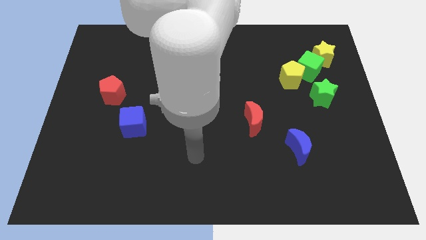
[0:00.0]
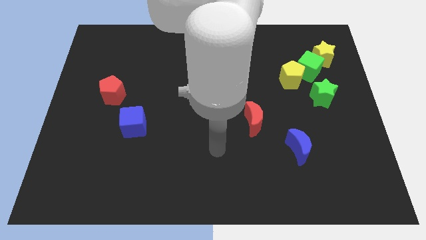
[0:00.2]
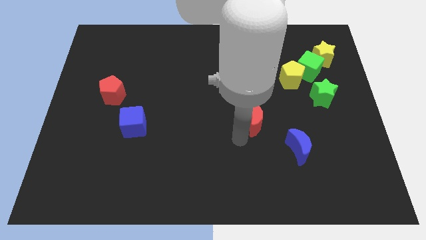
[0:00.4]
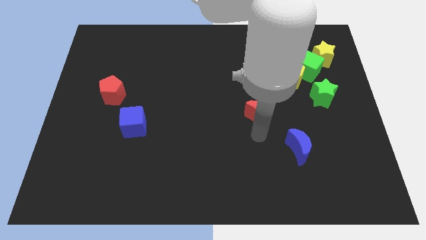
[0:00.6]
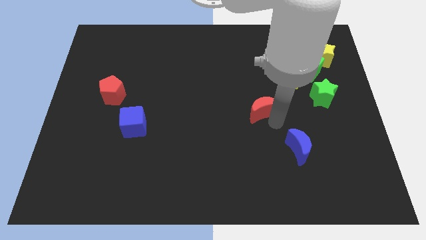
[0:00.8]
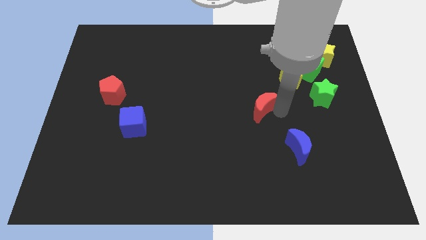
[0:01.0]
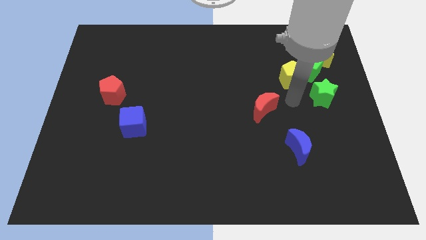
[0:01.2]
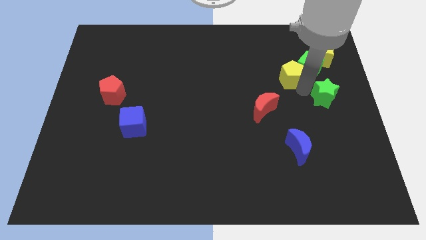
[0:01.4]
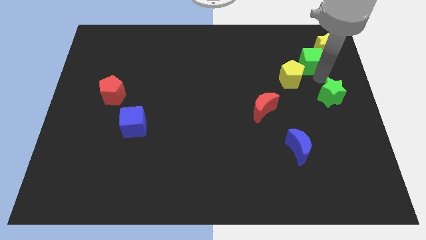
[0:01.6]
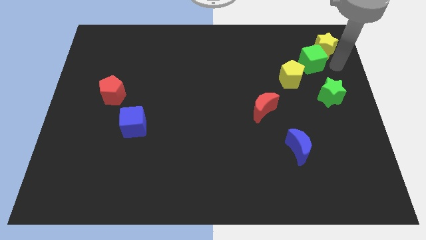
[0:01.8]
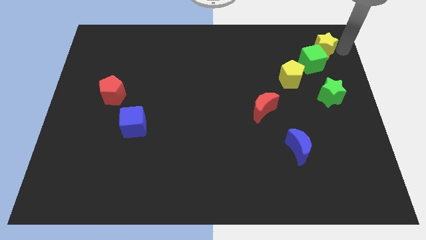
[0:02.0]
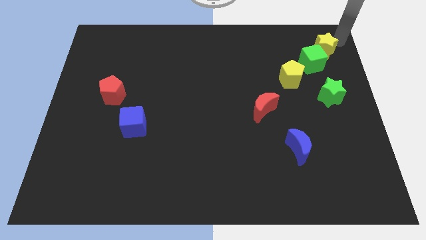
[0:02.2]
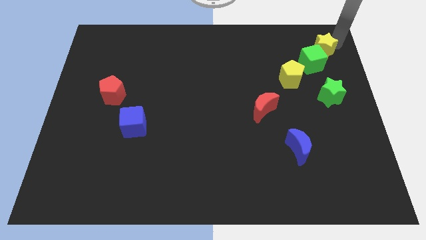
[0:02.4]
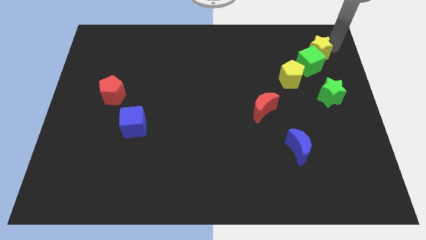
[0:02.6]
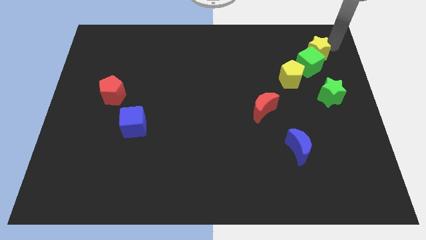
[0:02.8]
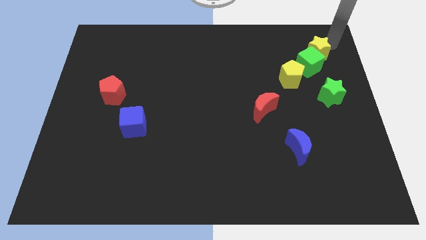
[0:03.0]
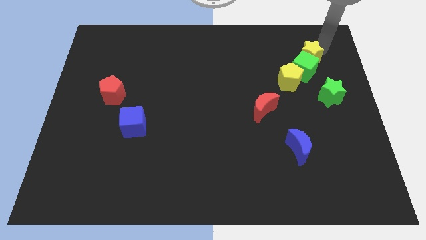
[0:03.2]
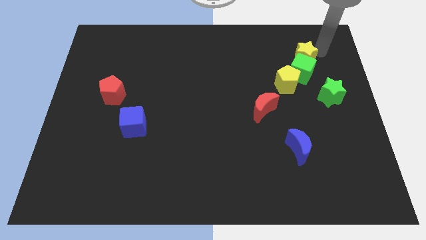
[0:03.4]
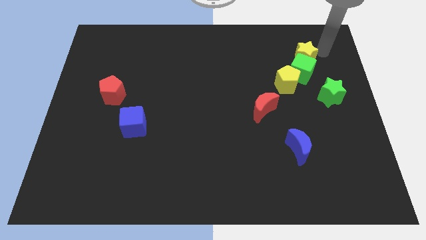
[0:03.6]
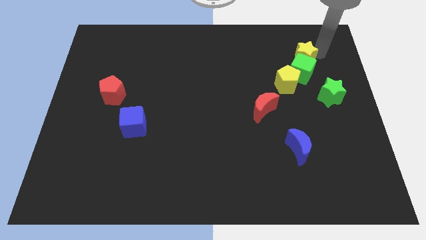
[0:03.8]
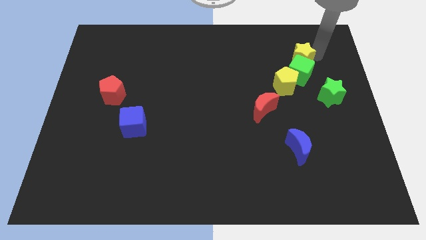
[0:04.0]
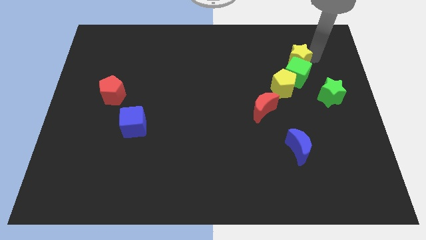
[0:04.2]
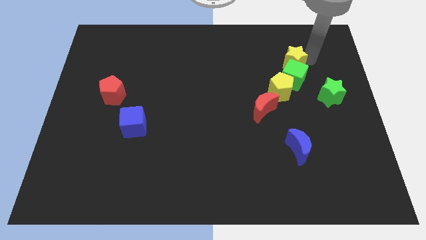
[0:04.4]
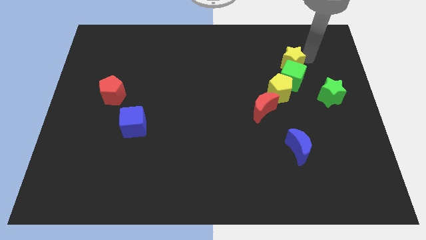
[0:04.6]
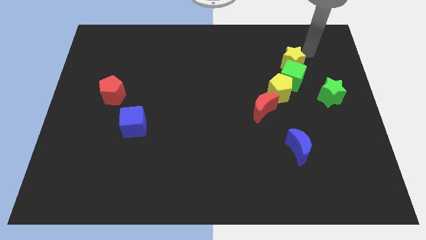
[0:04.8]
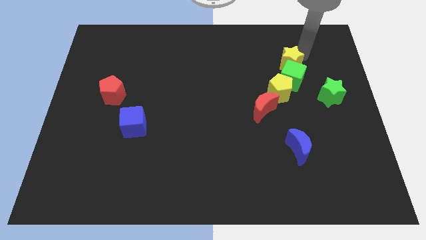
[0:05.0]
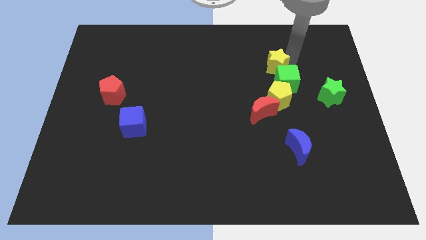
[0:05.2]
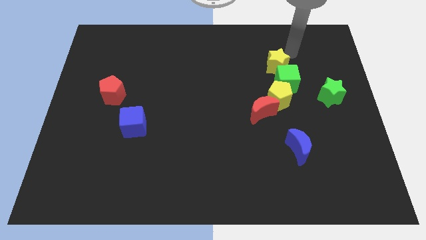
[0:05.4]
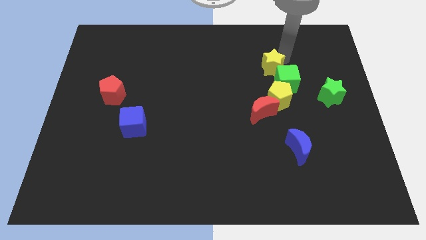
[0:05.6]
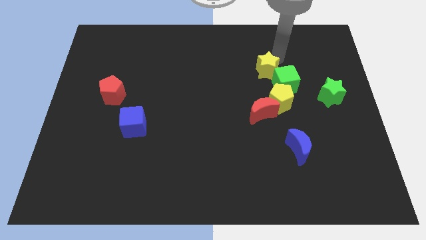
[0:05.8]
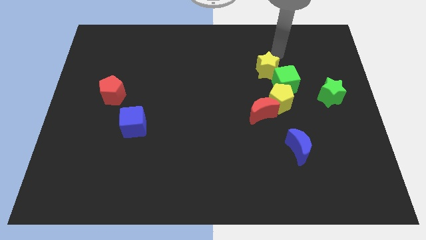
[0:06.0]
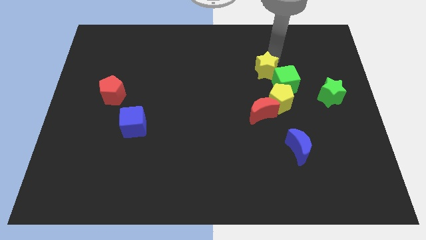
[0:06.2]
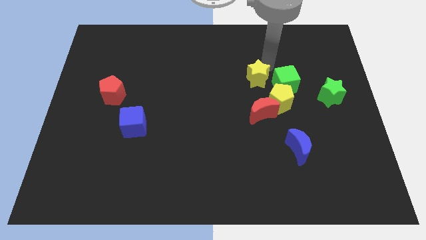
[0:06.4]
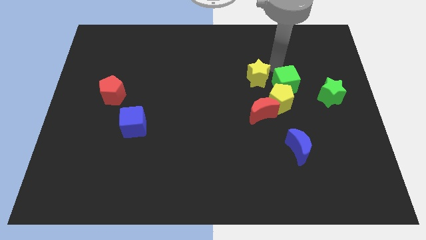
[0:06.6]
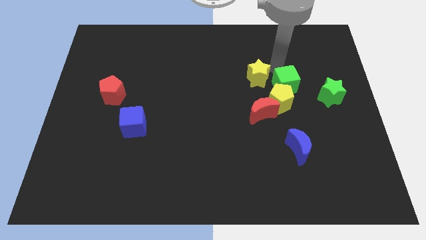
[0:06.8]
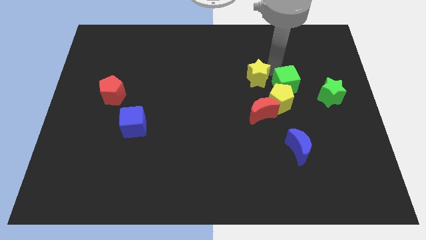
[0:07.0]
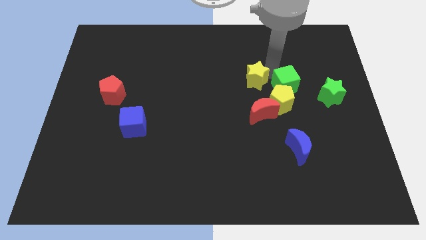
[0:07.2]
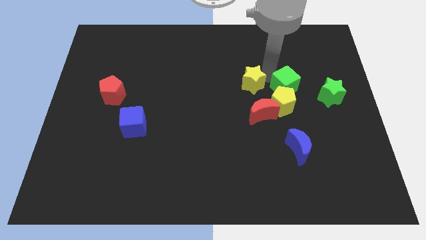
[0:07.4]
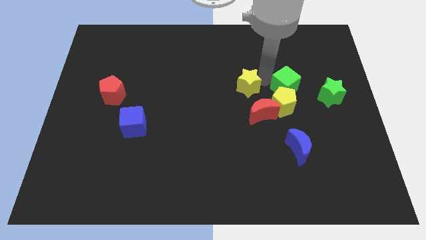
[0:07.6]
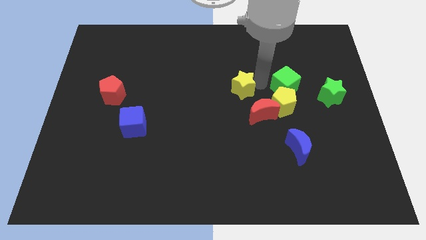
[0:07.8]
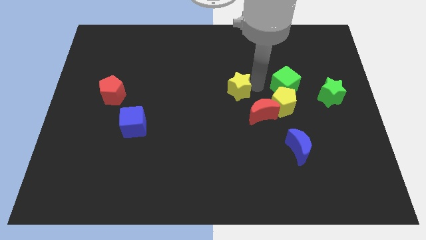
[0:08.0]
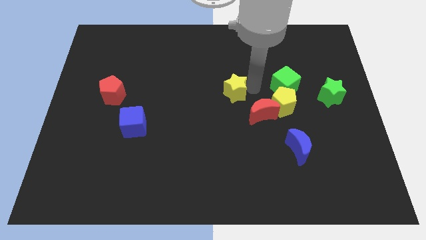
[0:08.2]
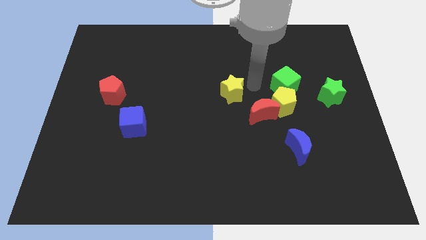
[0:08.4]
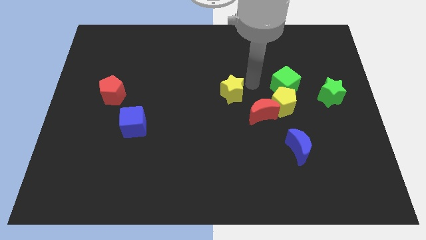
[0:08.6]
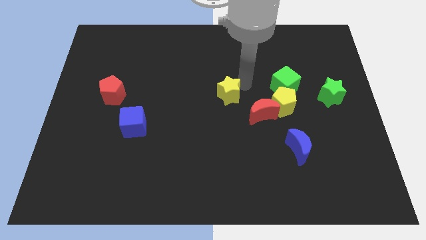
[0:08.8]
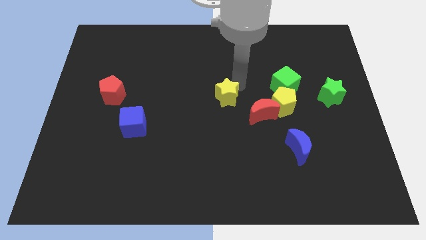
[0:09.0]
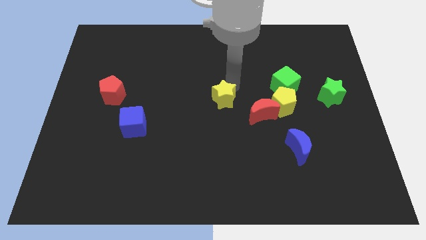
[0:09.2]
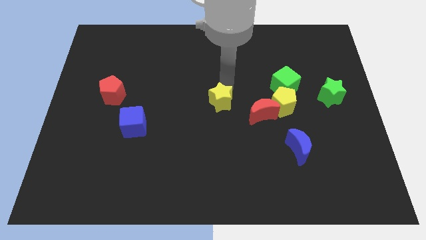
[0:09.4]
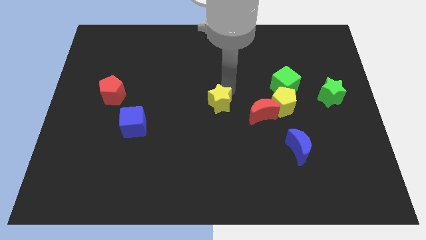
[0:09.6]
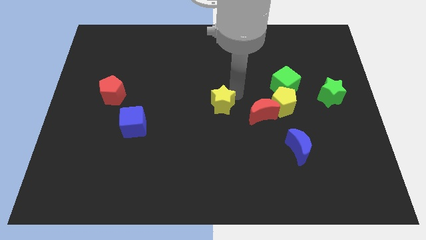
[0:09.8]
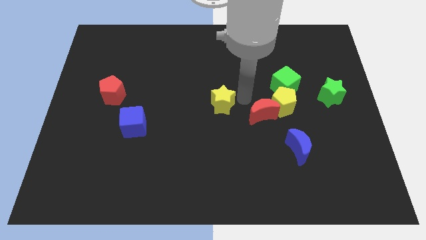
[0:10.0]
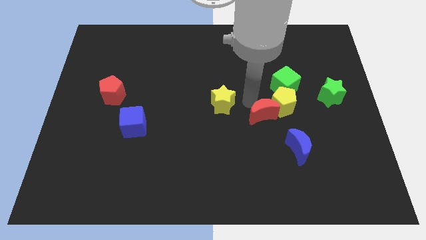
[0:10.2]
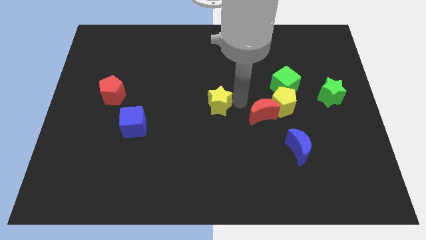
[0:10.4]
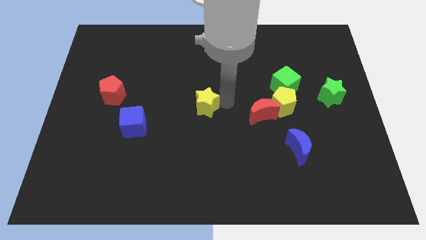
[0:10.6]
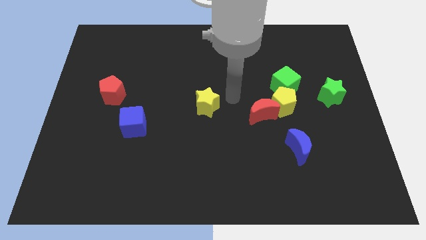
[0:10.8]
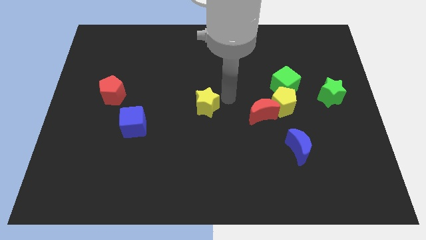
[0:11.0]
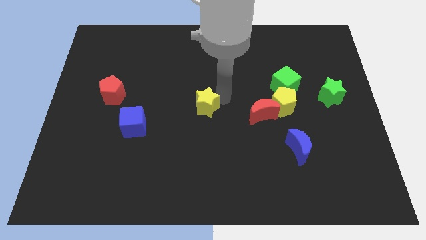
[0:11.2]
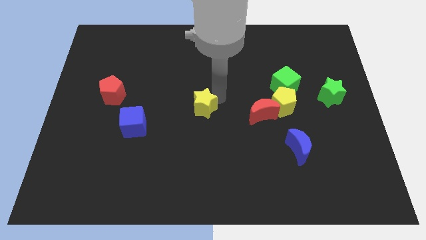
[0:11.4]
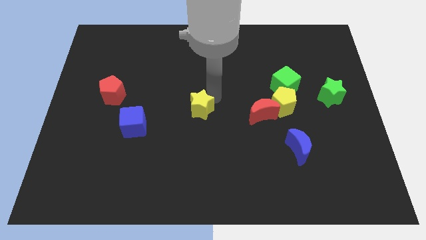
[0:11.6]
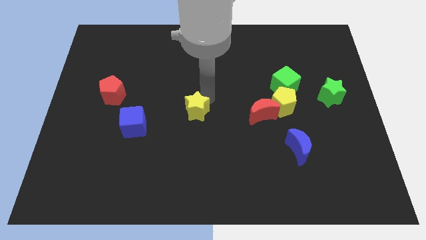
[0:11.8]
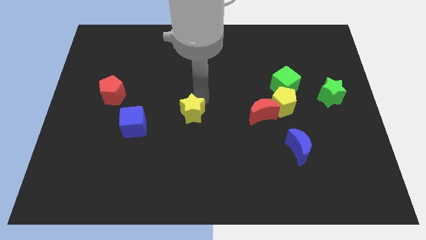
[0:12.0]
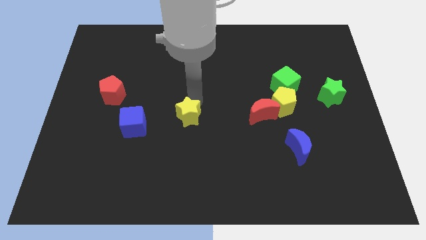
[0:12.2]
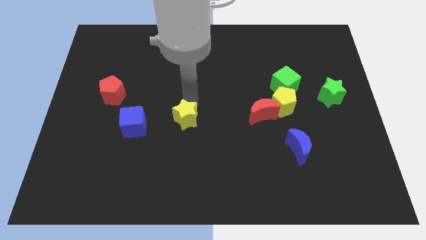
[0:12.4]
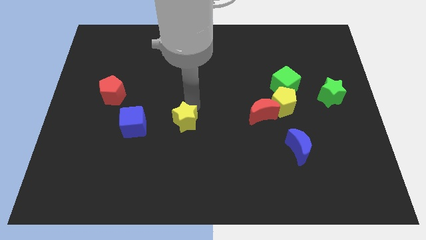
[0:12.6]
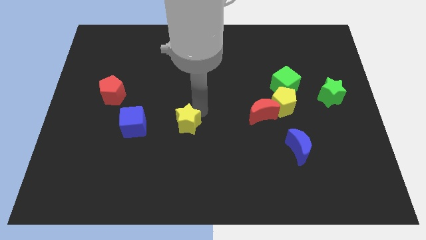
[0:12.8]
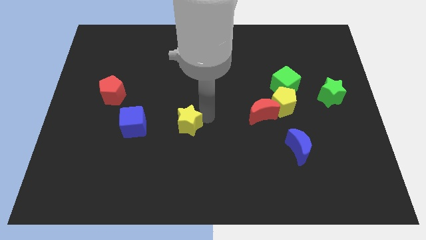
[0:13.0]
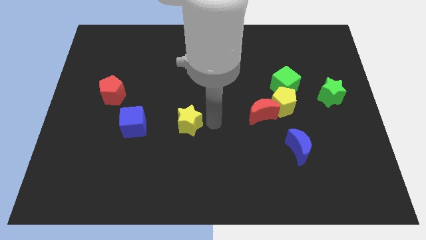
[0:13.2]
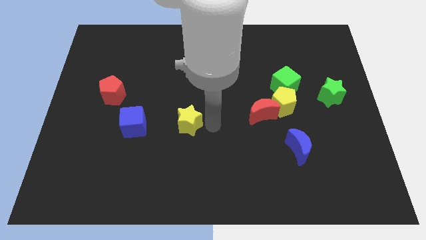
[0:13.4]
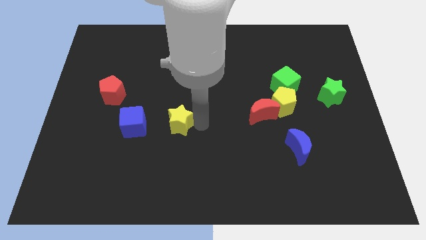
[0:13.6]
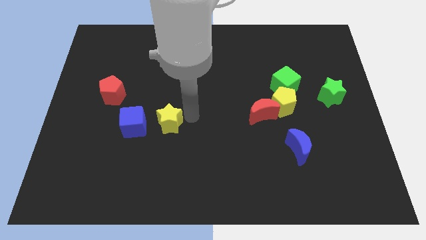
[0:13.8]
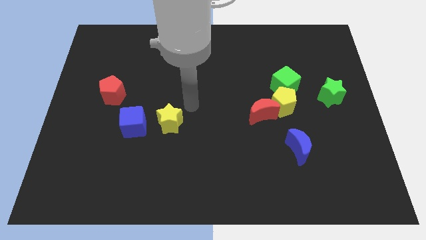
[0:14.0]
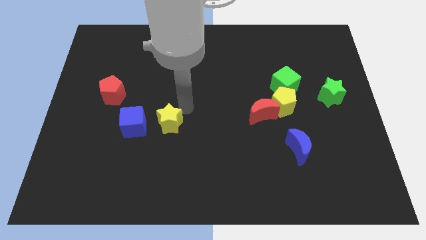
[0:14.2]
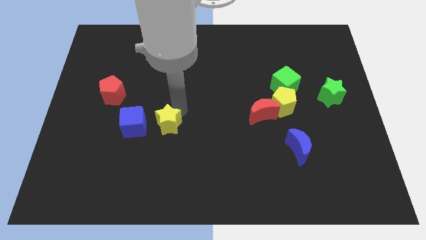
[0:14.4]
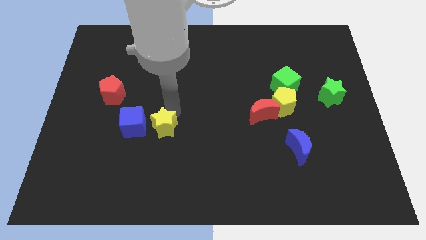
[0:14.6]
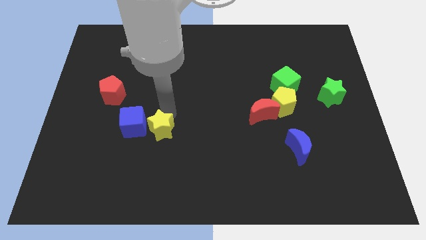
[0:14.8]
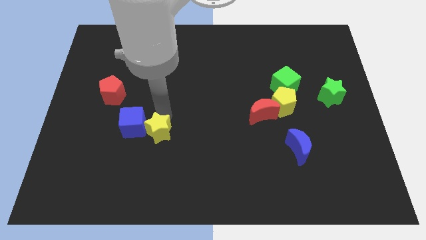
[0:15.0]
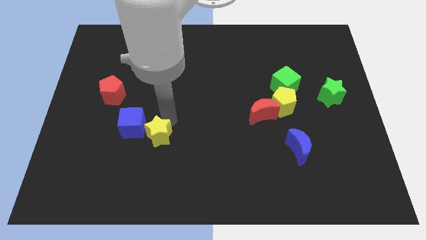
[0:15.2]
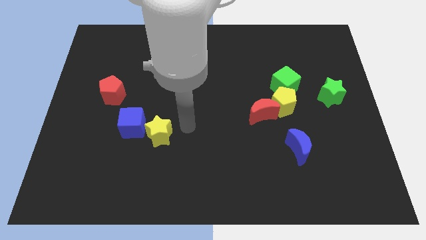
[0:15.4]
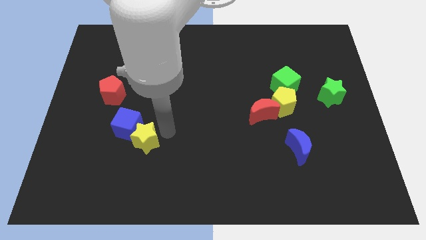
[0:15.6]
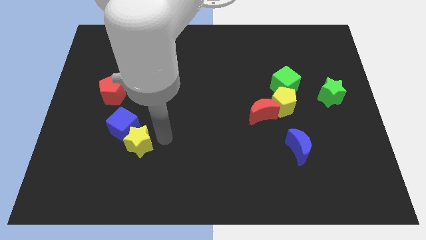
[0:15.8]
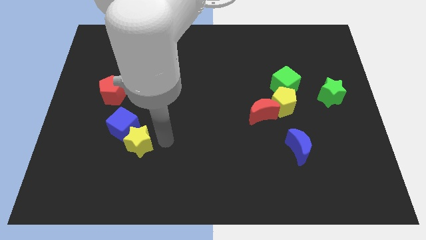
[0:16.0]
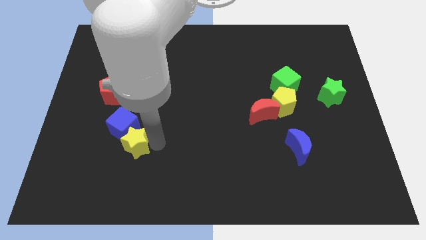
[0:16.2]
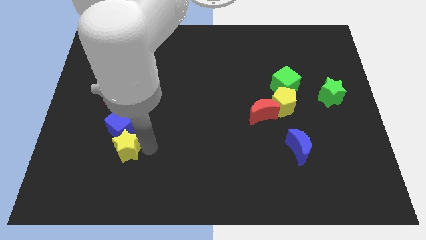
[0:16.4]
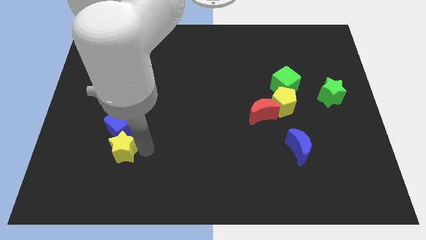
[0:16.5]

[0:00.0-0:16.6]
put the yellow star to the bottom left side of the blue cube
